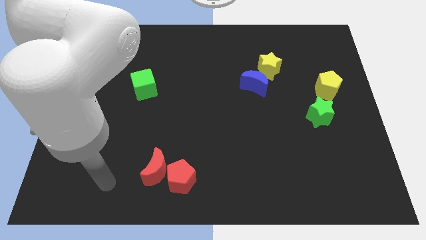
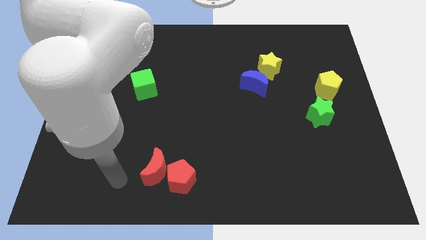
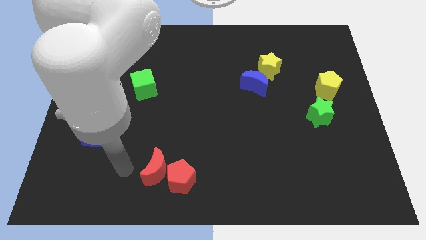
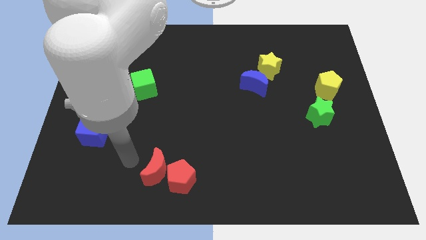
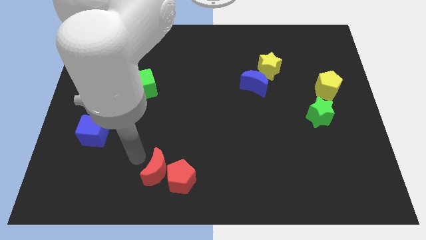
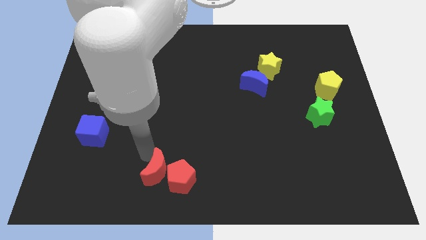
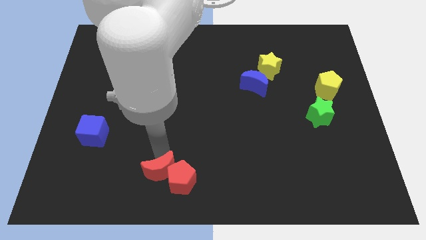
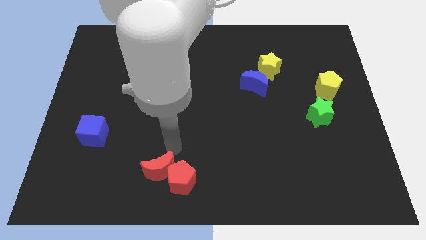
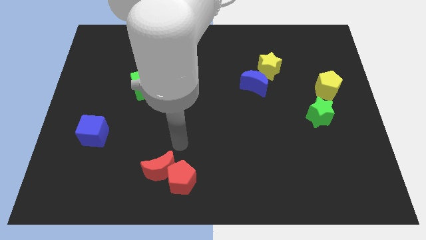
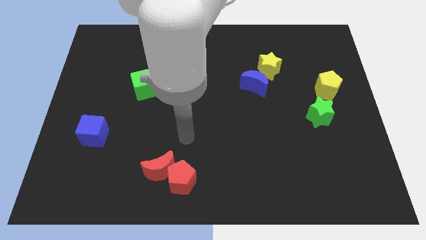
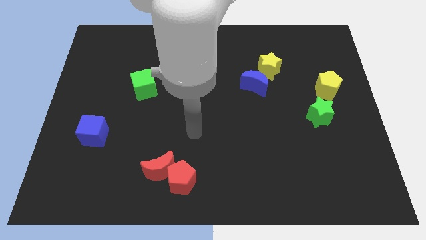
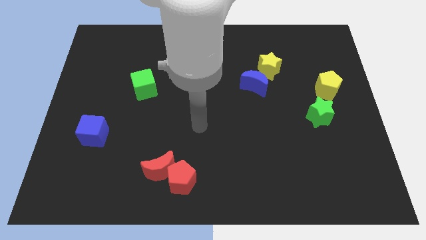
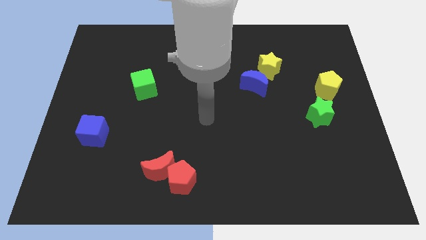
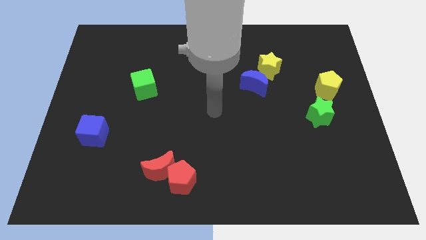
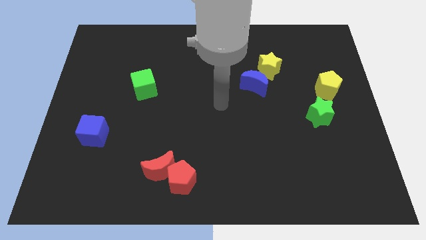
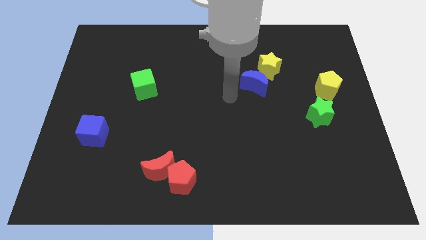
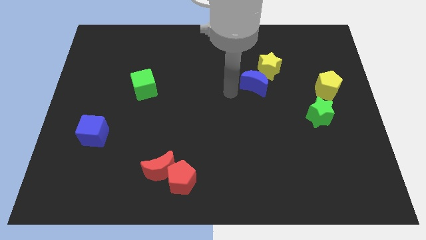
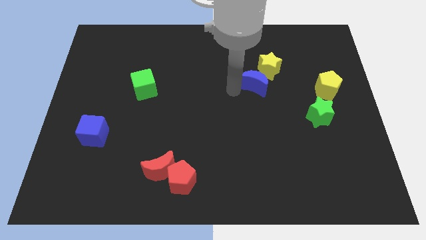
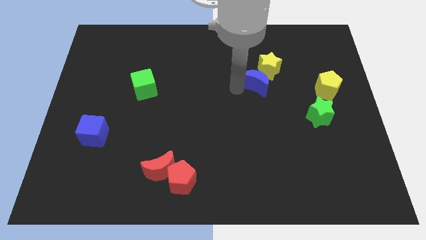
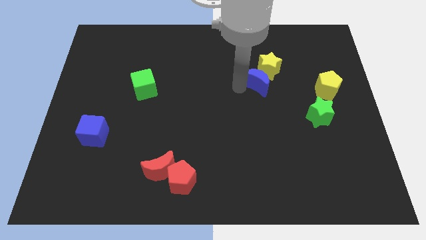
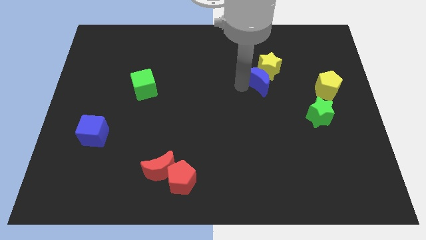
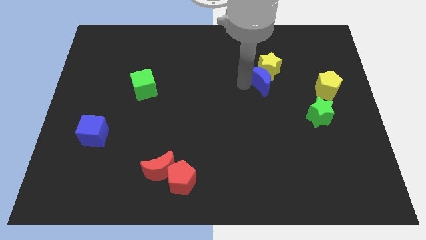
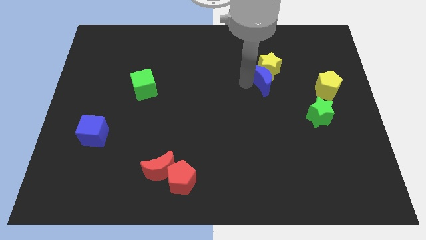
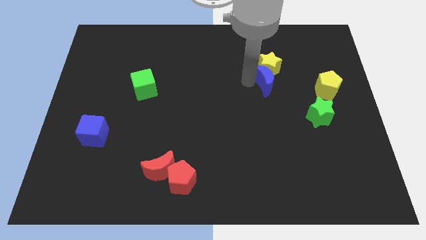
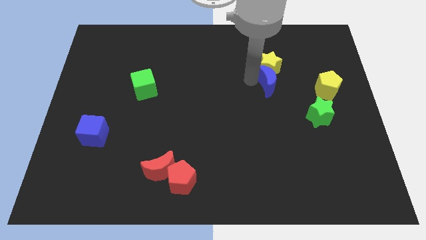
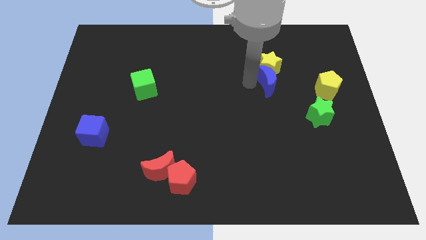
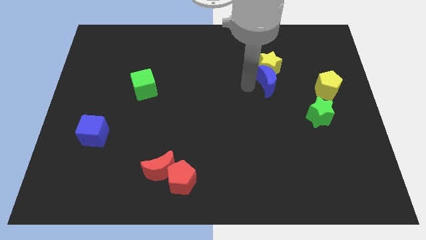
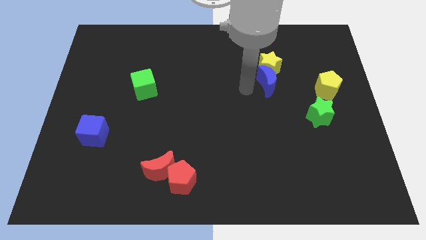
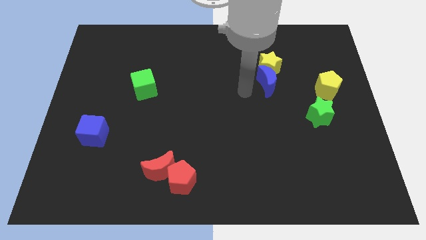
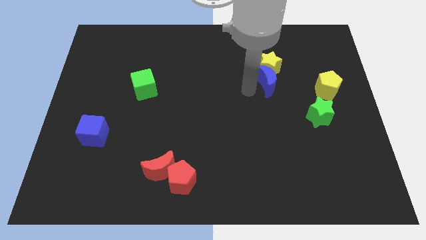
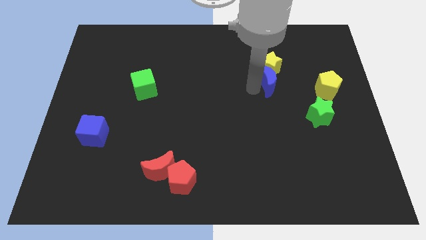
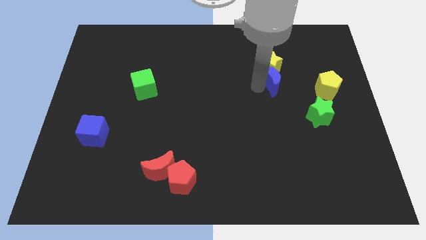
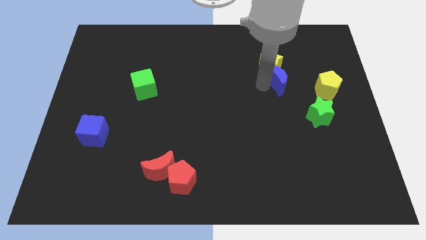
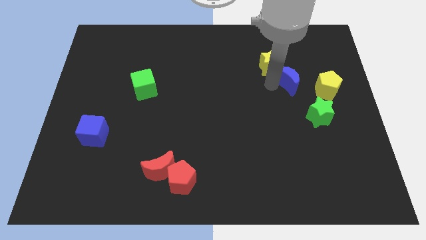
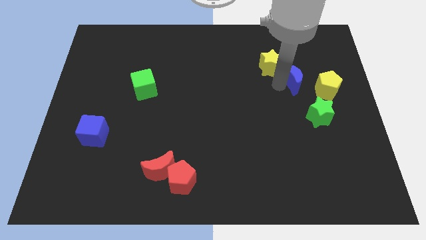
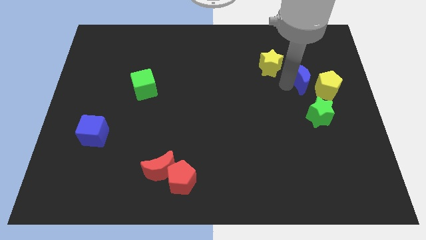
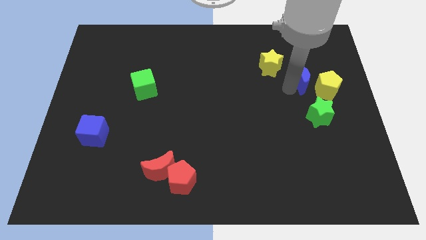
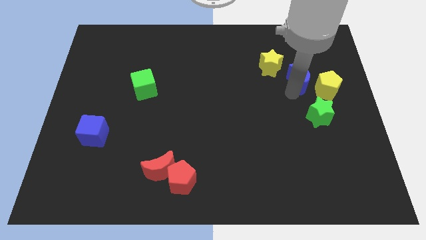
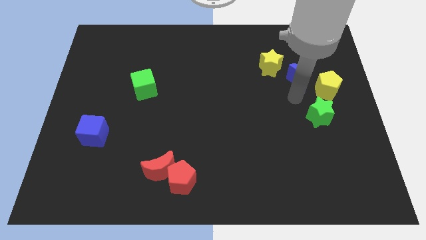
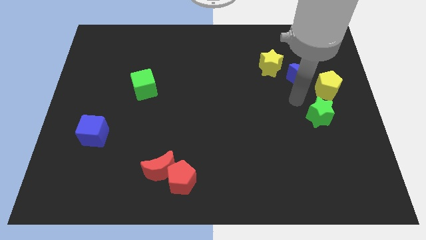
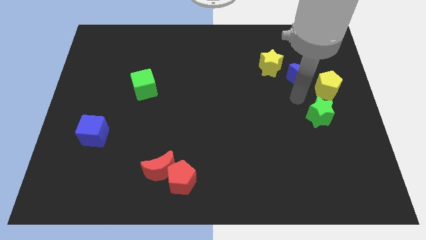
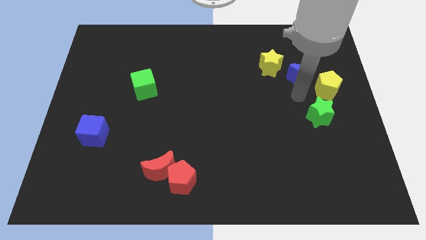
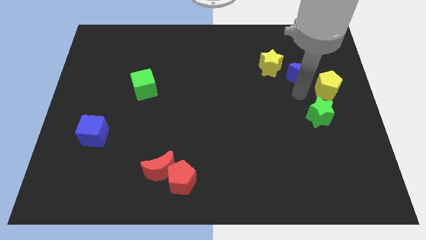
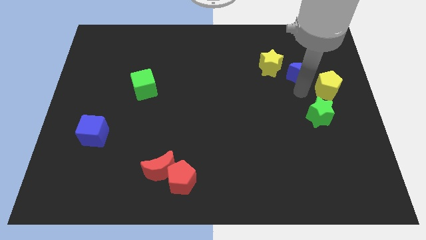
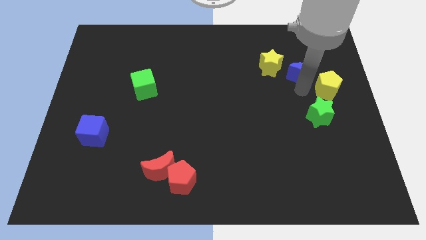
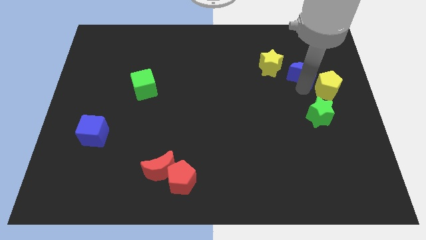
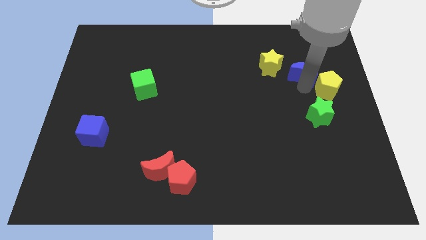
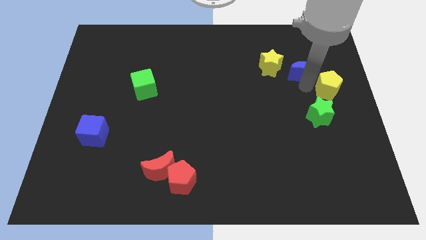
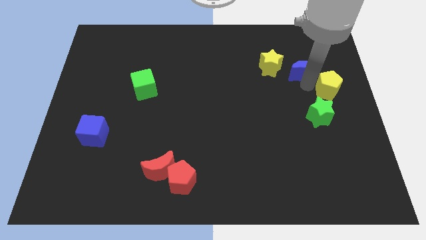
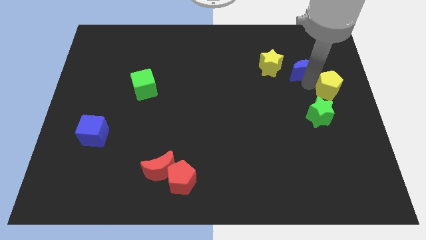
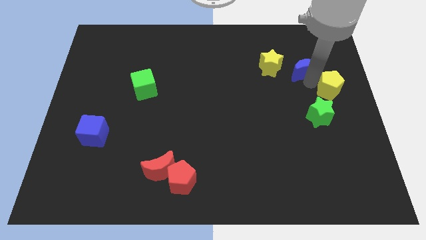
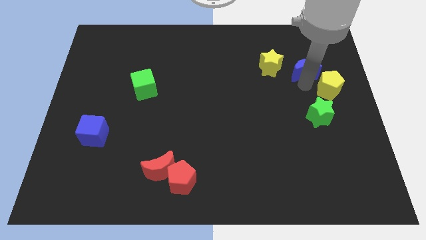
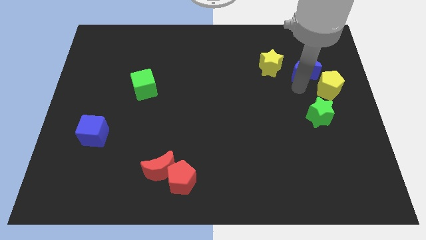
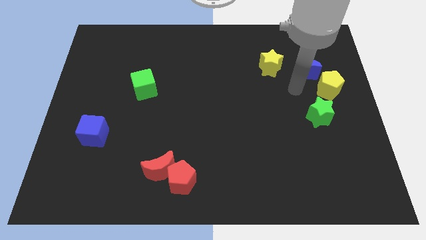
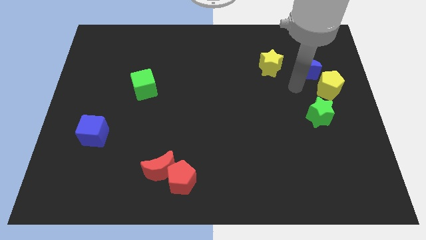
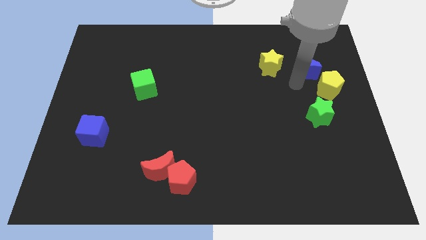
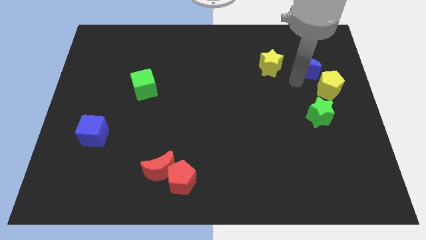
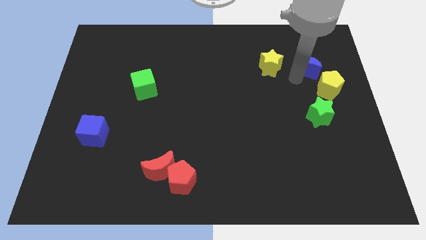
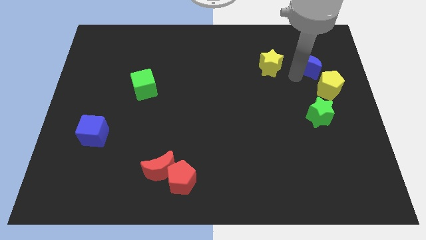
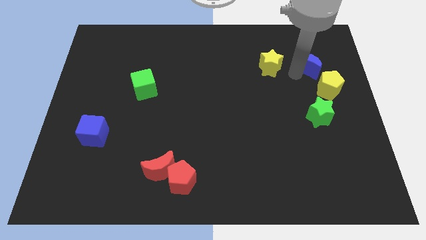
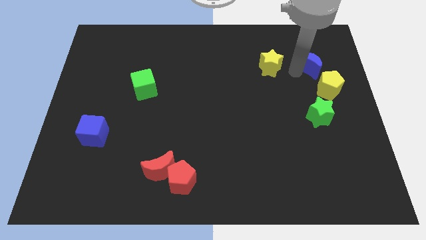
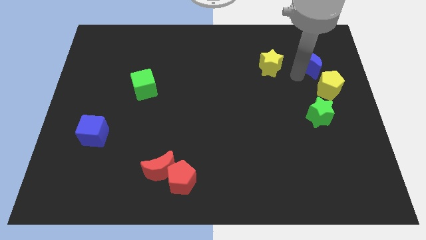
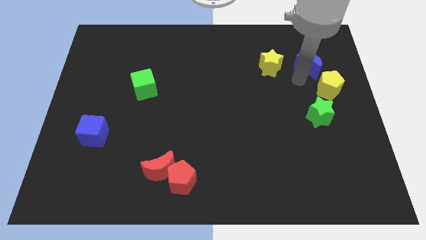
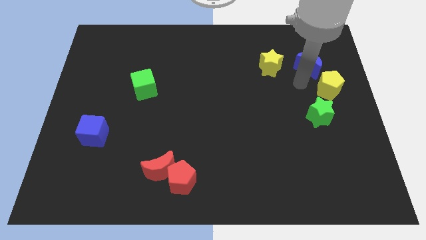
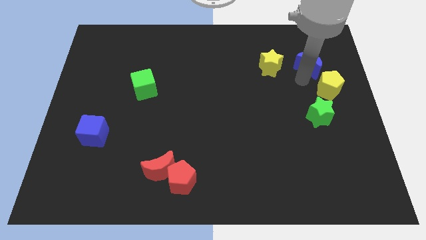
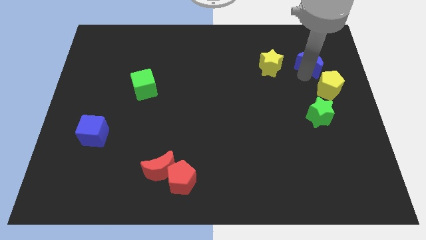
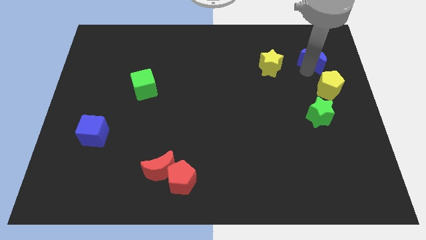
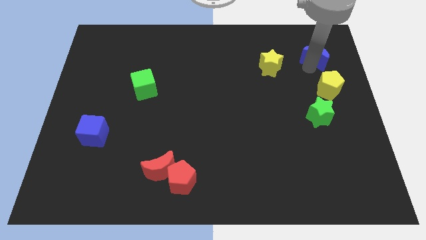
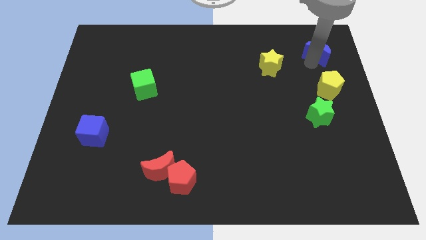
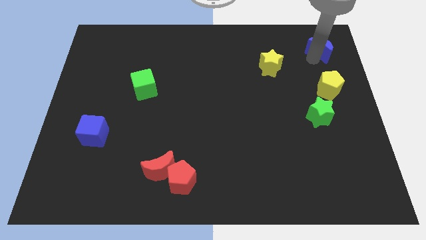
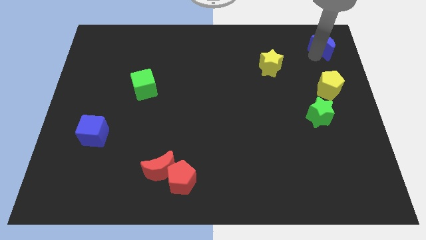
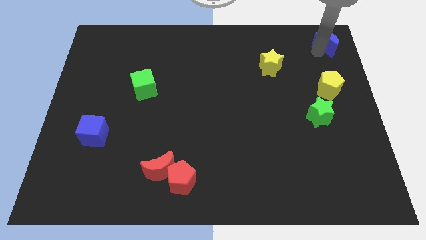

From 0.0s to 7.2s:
move the blue moon to the upper right corner
